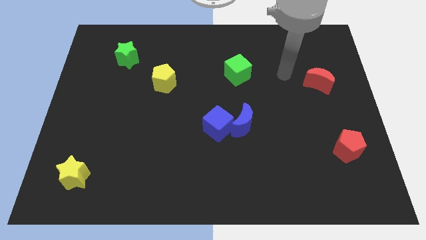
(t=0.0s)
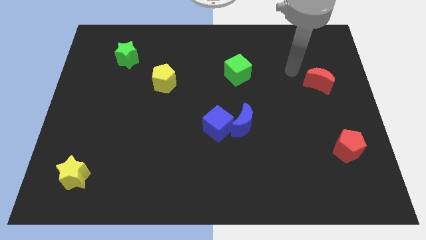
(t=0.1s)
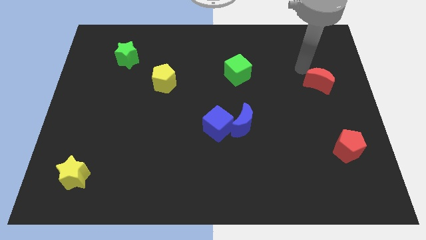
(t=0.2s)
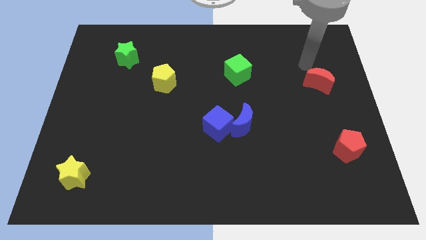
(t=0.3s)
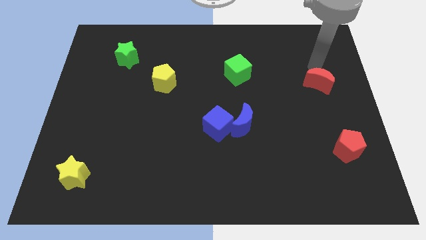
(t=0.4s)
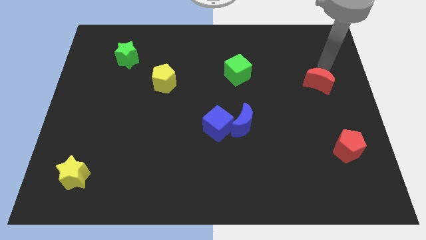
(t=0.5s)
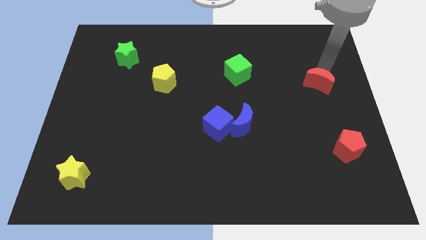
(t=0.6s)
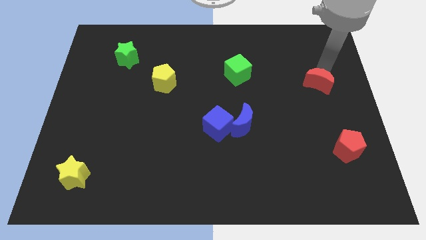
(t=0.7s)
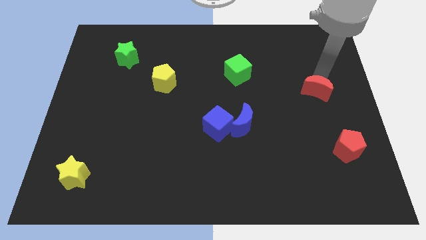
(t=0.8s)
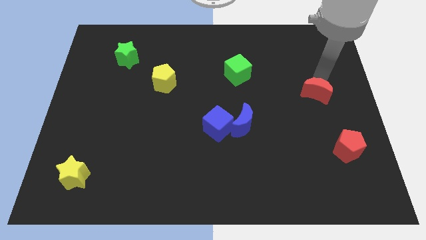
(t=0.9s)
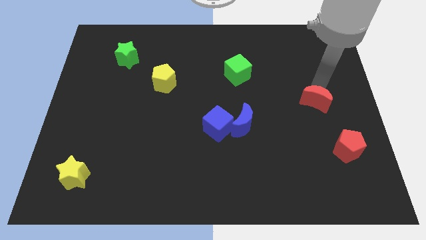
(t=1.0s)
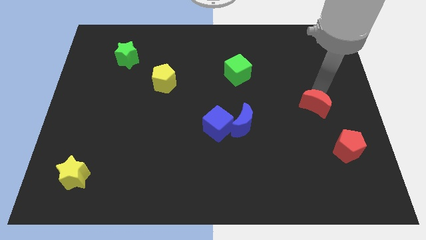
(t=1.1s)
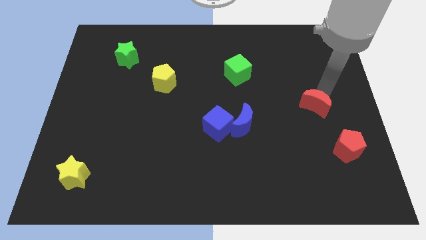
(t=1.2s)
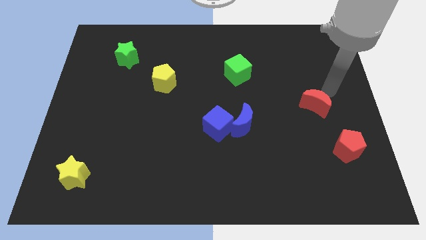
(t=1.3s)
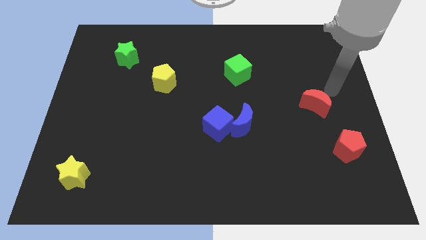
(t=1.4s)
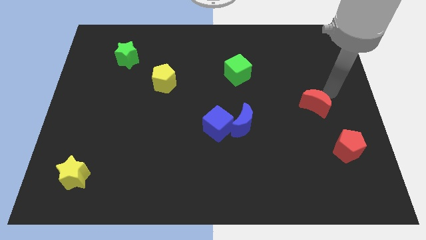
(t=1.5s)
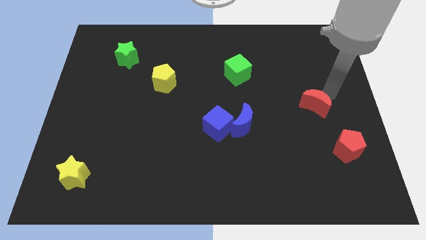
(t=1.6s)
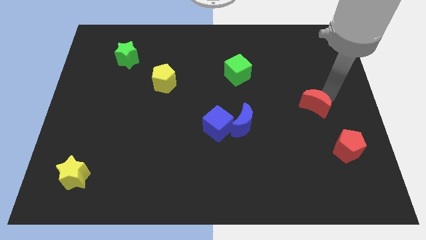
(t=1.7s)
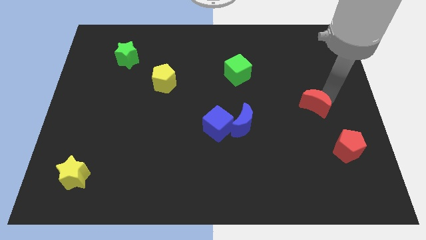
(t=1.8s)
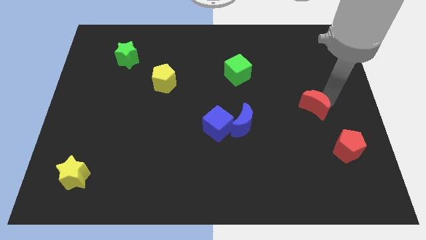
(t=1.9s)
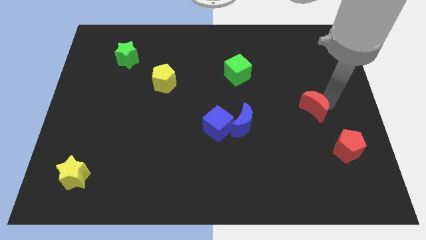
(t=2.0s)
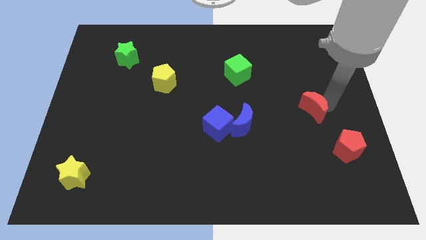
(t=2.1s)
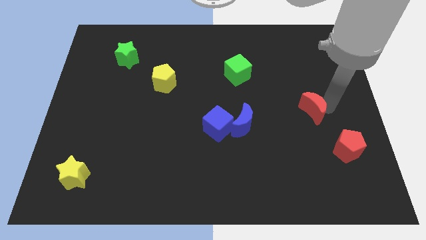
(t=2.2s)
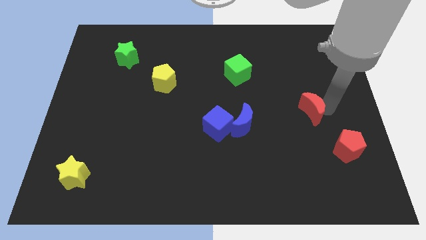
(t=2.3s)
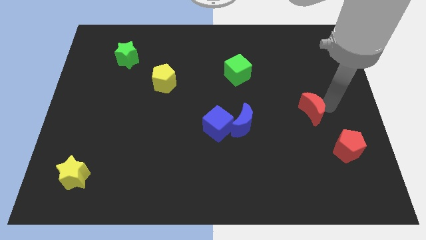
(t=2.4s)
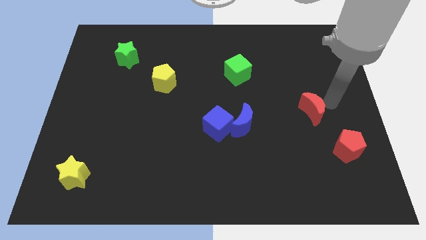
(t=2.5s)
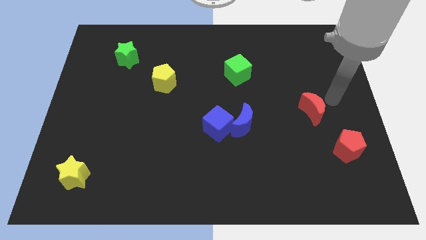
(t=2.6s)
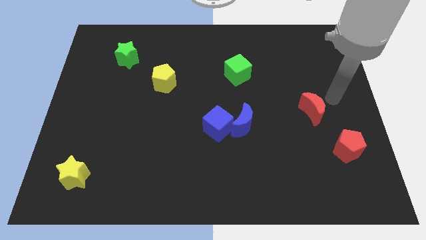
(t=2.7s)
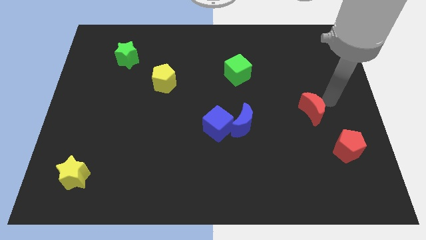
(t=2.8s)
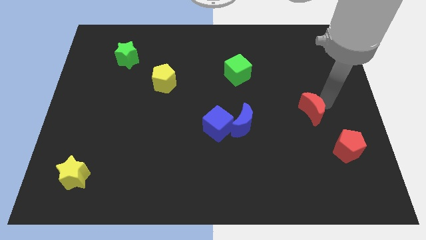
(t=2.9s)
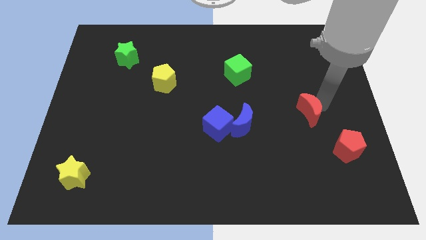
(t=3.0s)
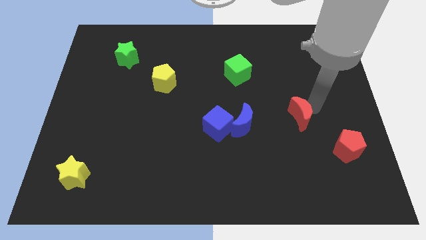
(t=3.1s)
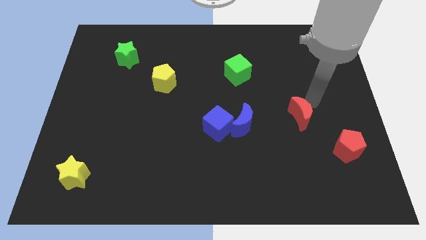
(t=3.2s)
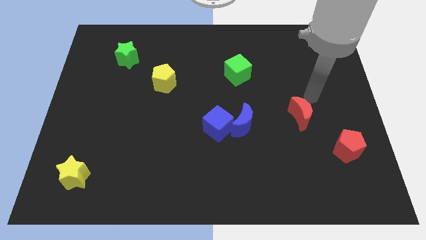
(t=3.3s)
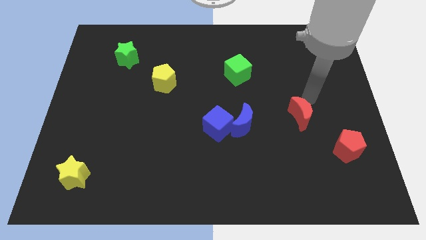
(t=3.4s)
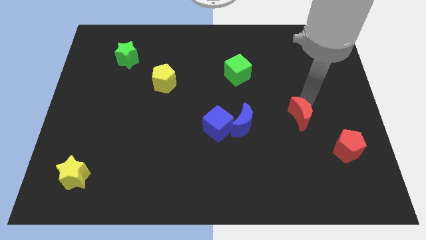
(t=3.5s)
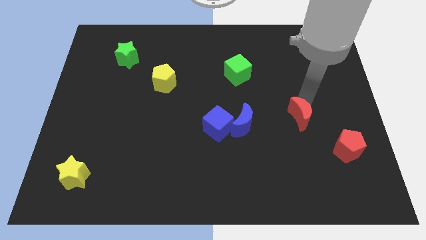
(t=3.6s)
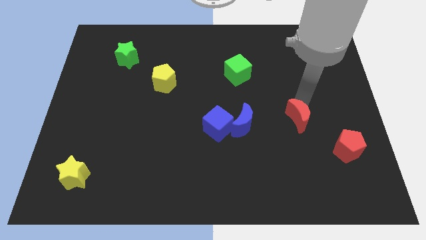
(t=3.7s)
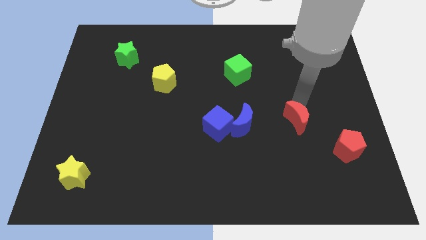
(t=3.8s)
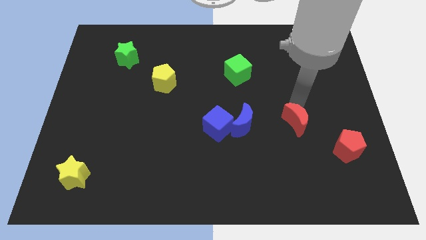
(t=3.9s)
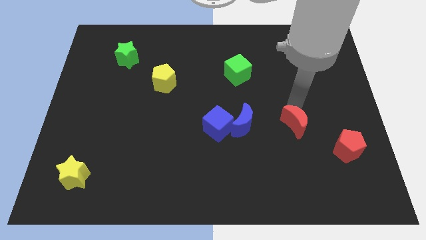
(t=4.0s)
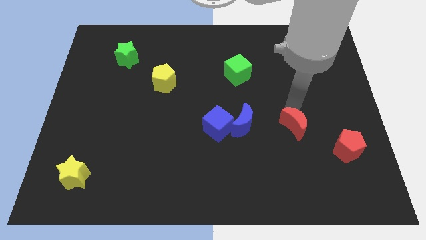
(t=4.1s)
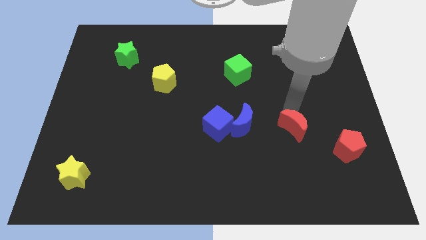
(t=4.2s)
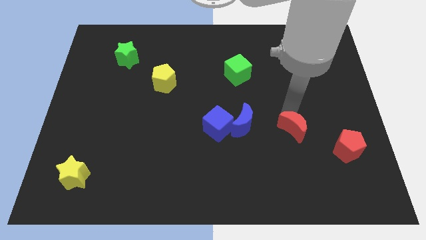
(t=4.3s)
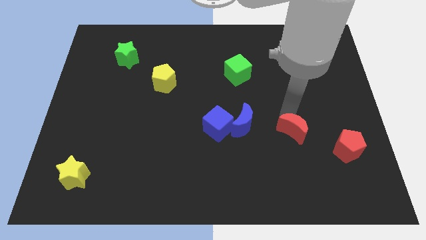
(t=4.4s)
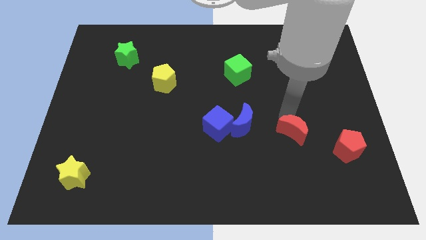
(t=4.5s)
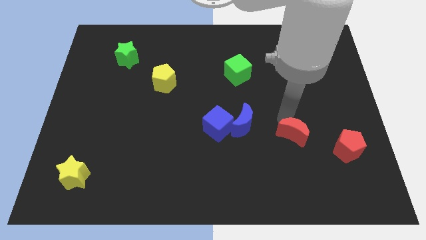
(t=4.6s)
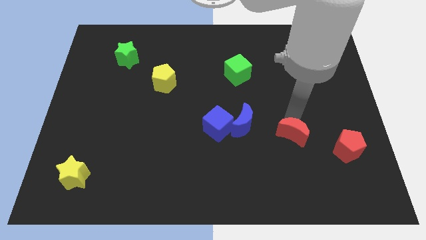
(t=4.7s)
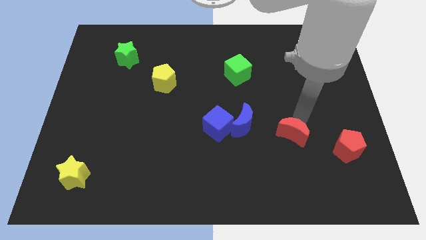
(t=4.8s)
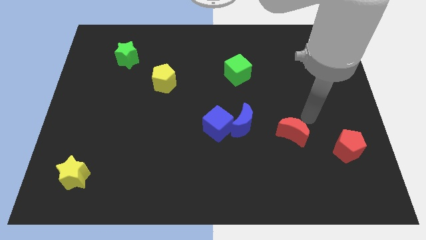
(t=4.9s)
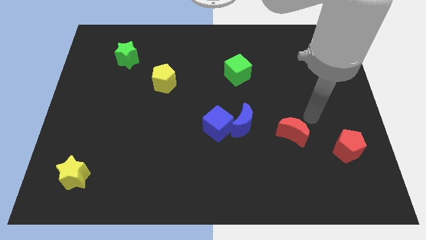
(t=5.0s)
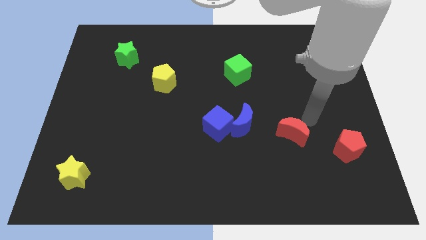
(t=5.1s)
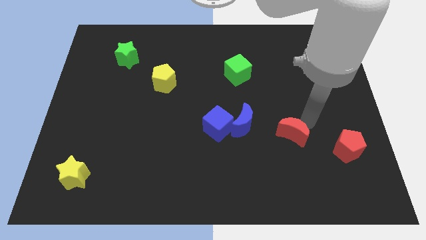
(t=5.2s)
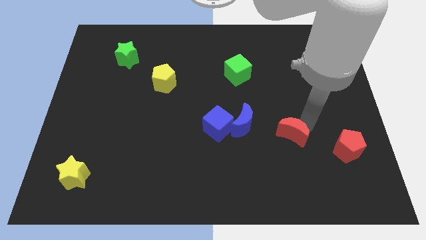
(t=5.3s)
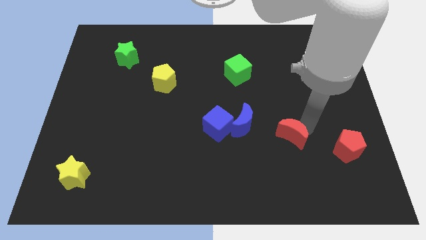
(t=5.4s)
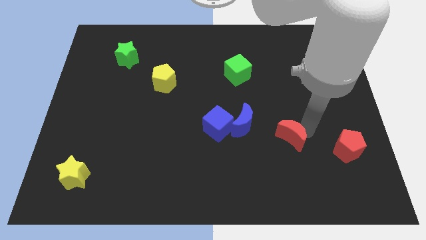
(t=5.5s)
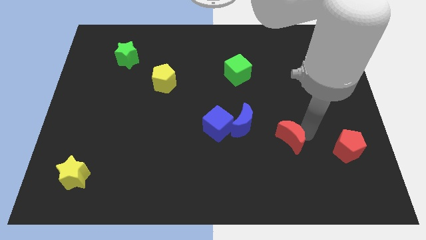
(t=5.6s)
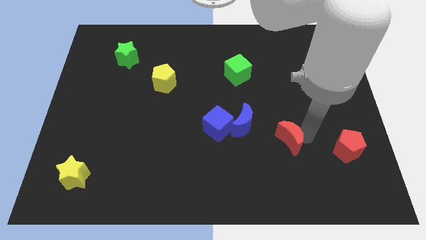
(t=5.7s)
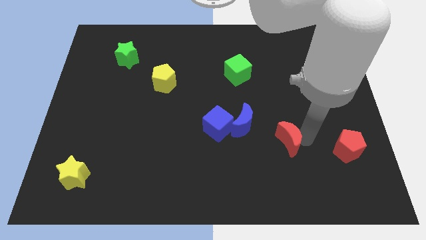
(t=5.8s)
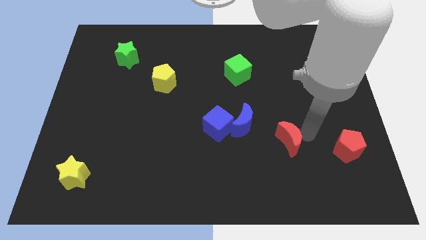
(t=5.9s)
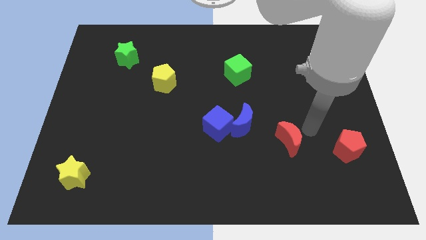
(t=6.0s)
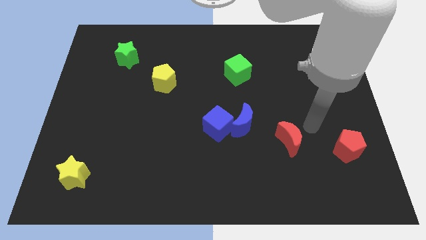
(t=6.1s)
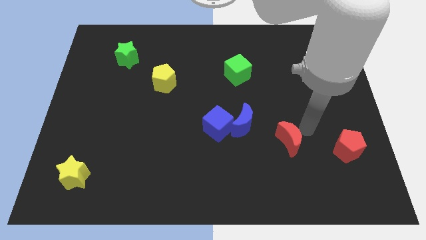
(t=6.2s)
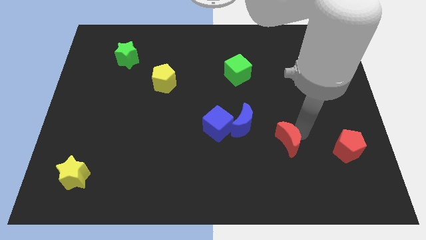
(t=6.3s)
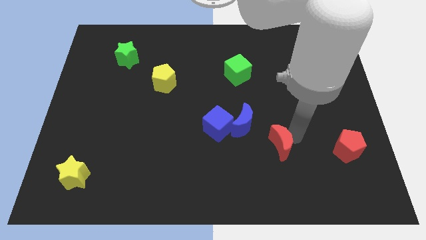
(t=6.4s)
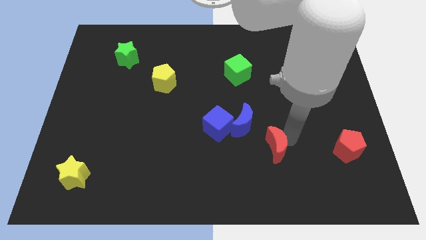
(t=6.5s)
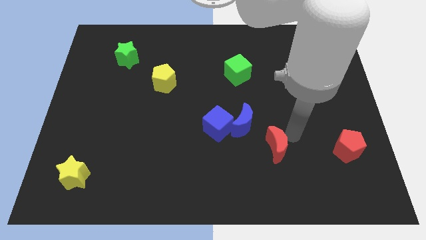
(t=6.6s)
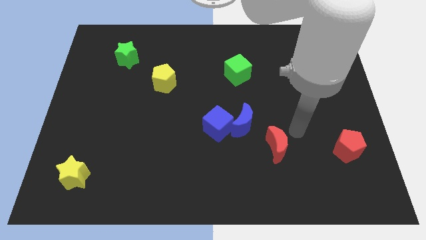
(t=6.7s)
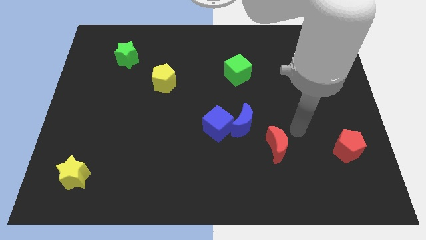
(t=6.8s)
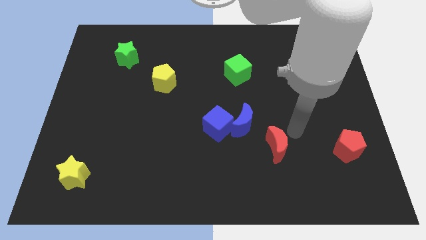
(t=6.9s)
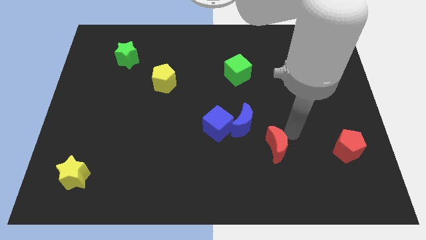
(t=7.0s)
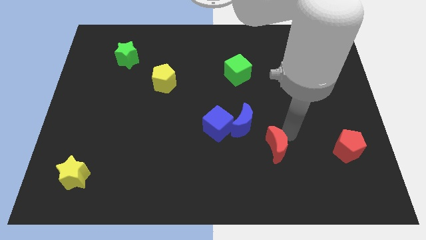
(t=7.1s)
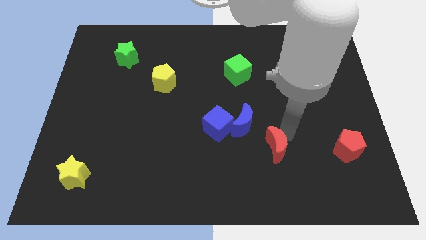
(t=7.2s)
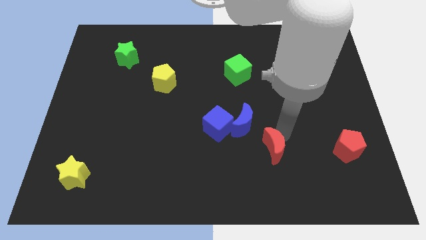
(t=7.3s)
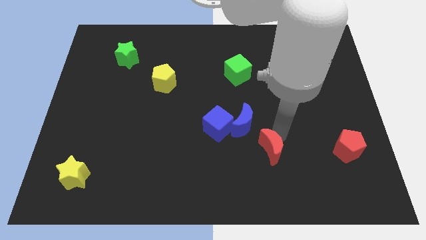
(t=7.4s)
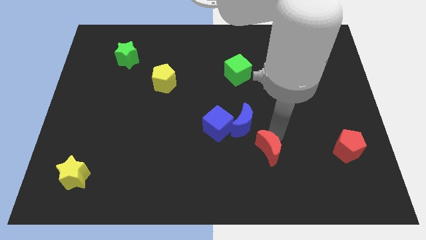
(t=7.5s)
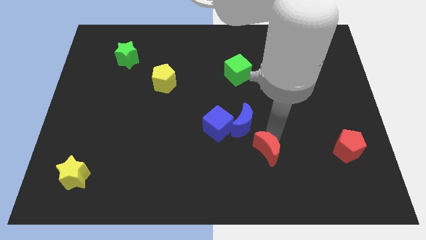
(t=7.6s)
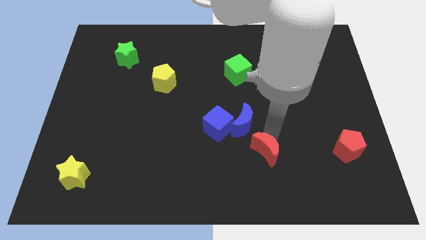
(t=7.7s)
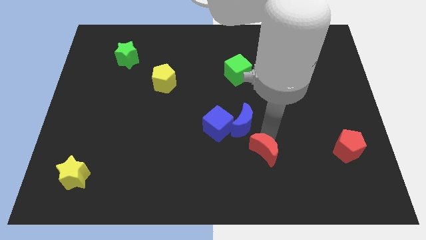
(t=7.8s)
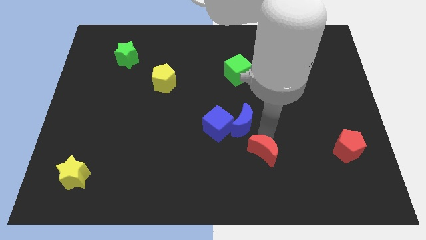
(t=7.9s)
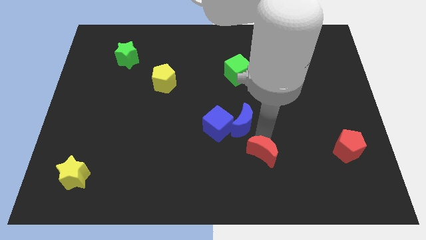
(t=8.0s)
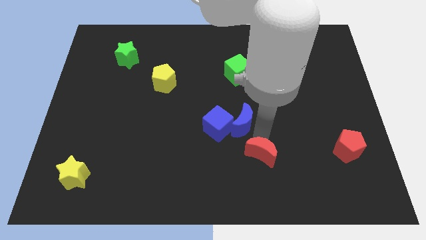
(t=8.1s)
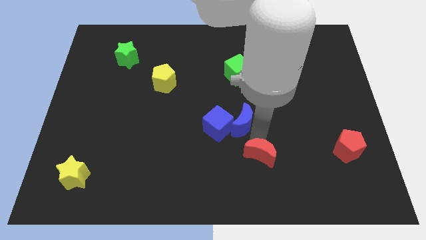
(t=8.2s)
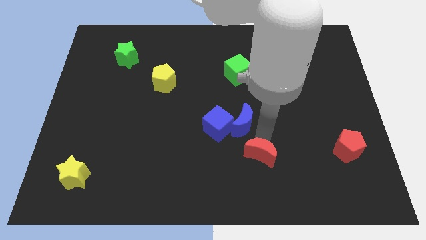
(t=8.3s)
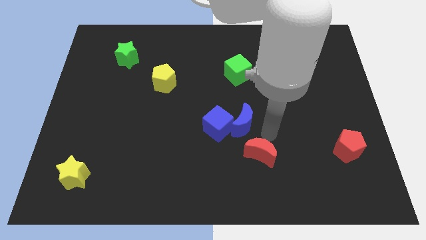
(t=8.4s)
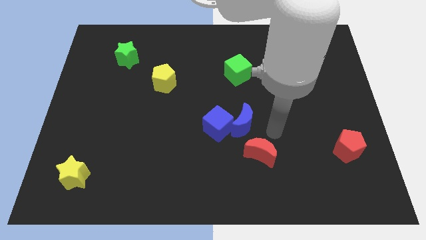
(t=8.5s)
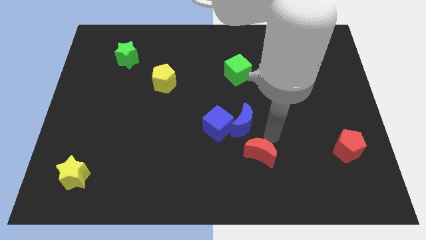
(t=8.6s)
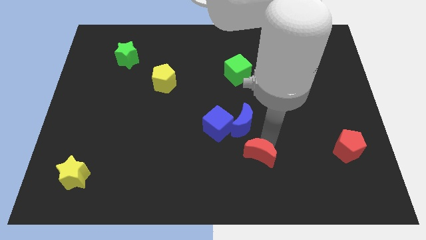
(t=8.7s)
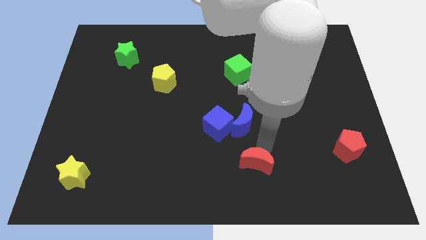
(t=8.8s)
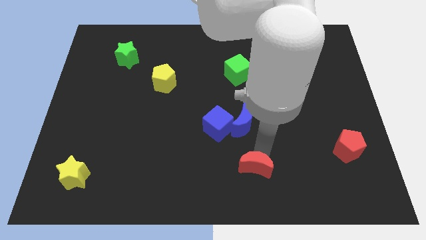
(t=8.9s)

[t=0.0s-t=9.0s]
put the red moon to the bottom side
